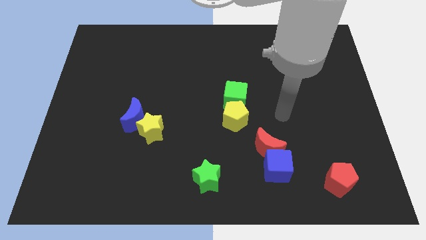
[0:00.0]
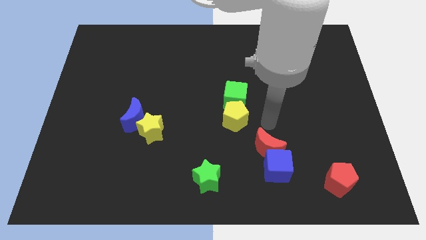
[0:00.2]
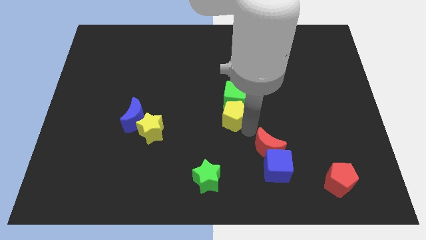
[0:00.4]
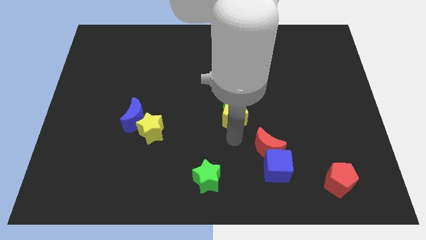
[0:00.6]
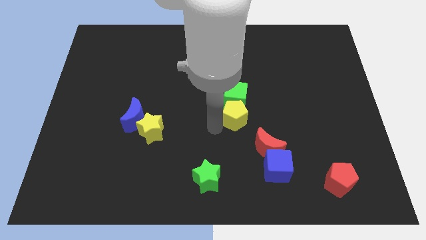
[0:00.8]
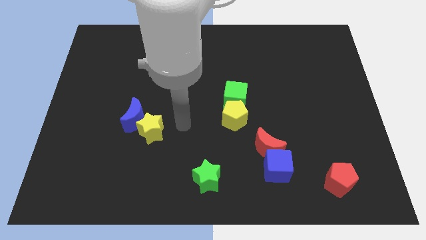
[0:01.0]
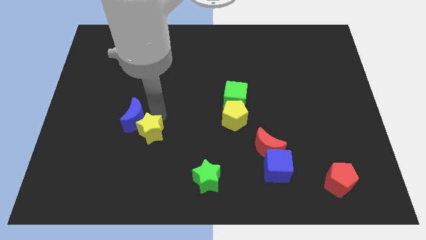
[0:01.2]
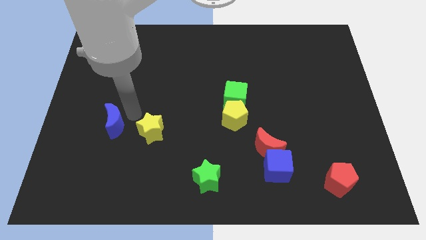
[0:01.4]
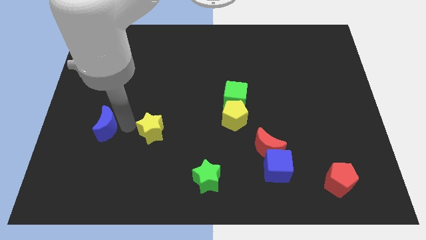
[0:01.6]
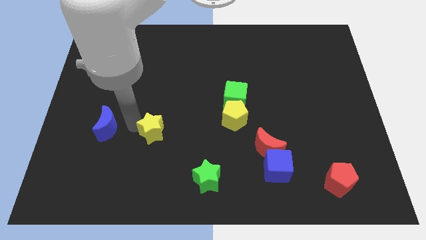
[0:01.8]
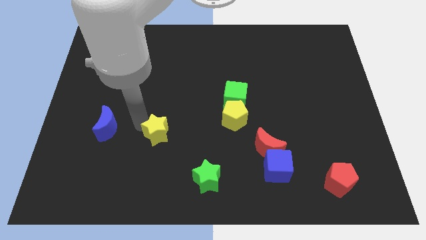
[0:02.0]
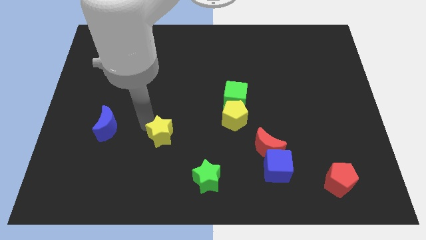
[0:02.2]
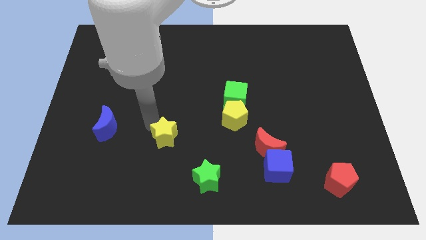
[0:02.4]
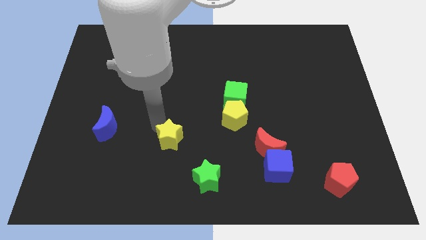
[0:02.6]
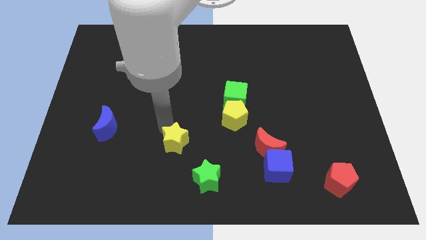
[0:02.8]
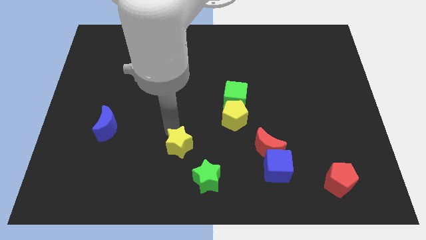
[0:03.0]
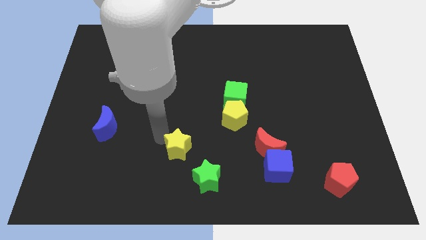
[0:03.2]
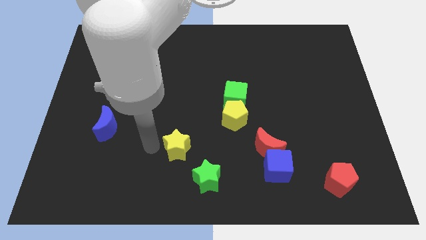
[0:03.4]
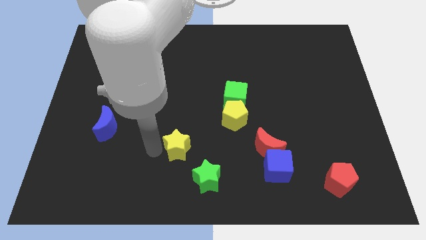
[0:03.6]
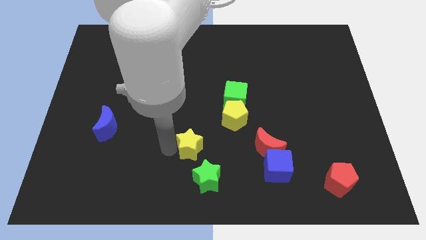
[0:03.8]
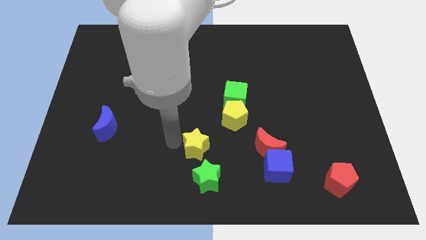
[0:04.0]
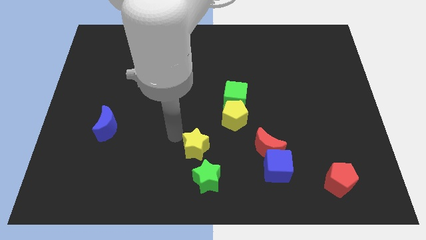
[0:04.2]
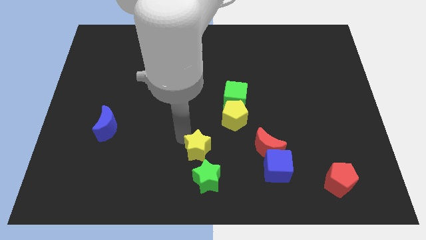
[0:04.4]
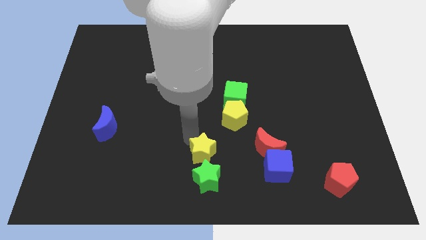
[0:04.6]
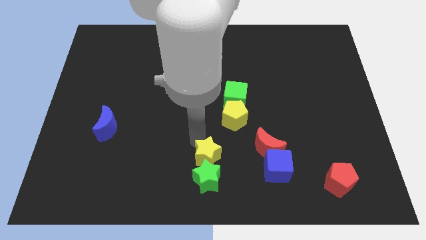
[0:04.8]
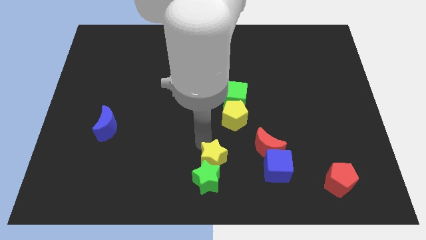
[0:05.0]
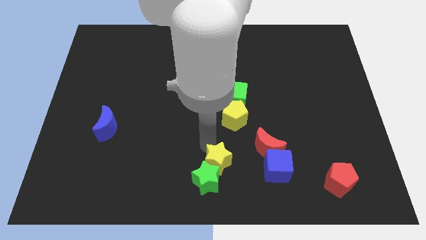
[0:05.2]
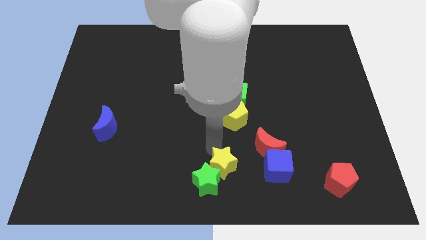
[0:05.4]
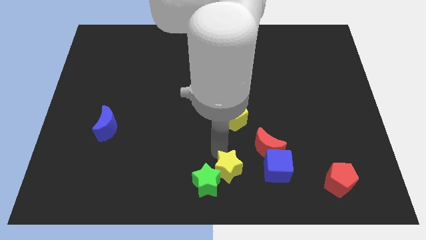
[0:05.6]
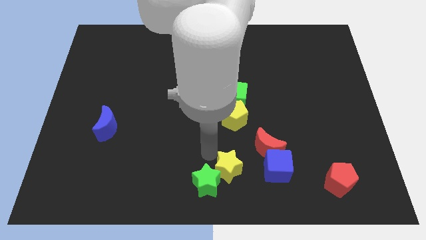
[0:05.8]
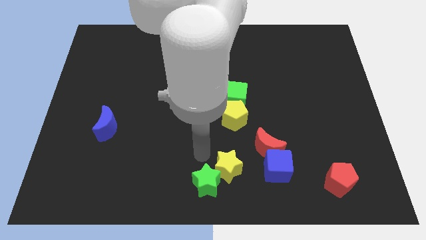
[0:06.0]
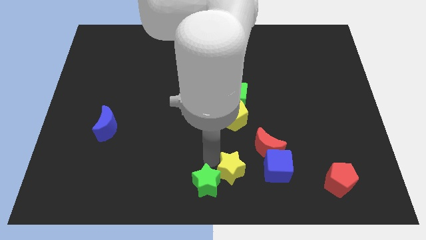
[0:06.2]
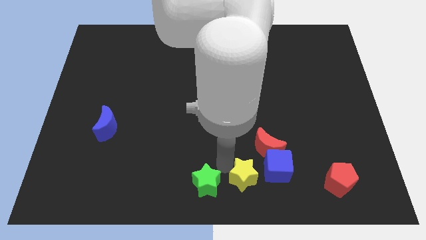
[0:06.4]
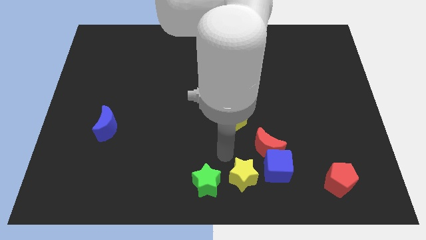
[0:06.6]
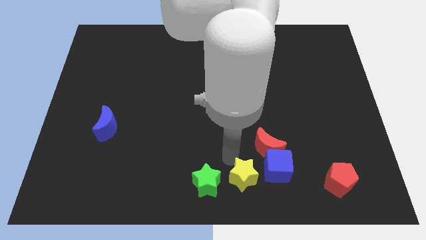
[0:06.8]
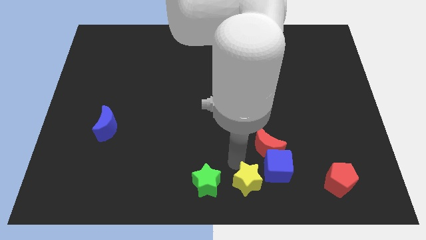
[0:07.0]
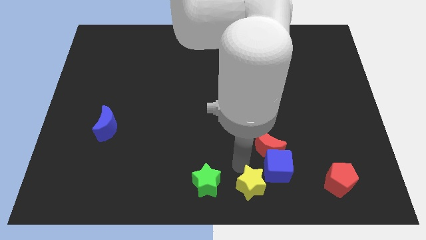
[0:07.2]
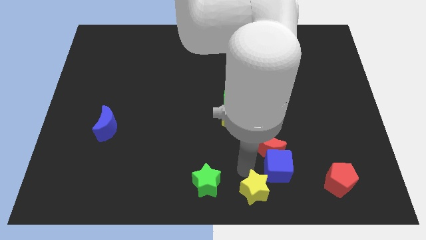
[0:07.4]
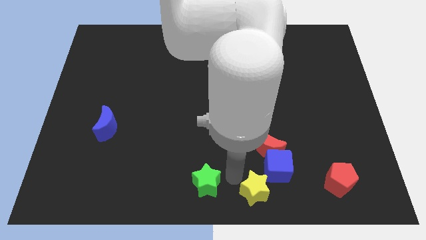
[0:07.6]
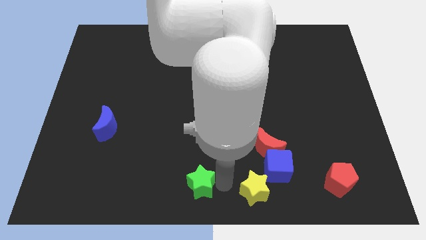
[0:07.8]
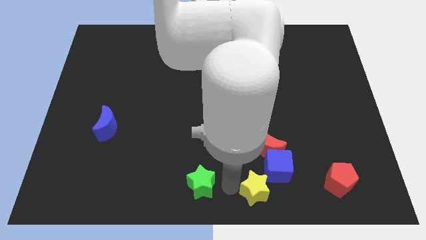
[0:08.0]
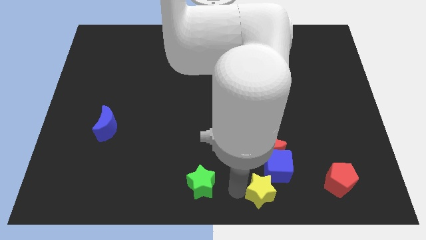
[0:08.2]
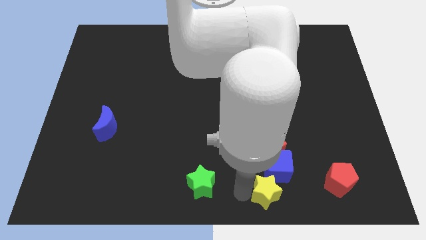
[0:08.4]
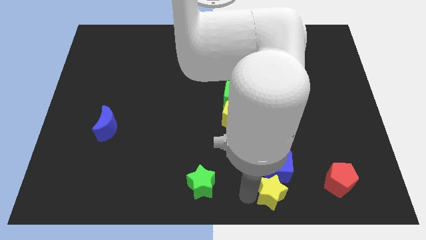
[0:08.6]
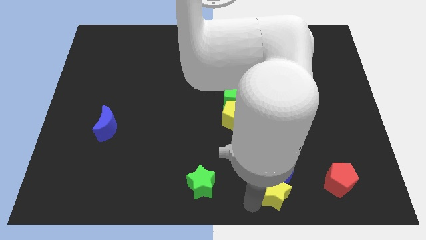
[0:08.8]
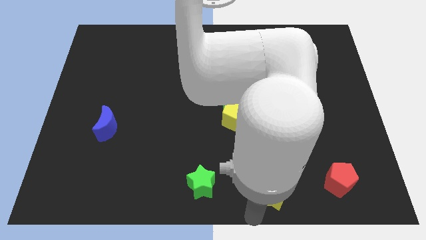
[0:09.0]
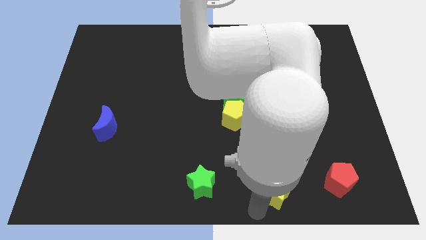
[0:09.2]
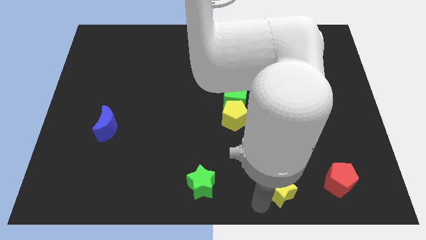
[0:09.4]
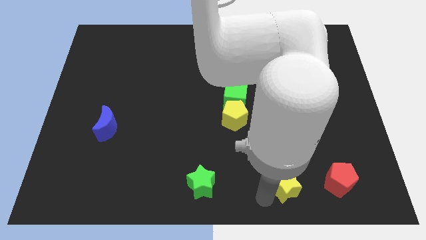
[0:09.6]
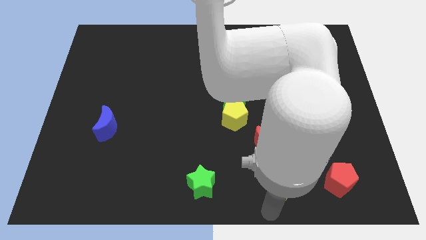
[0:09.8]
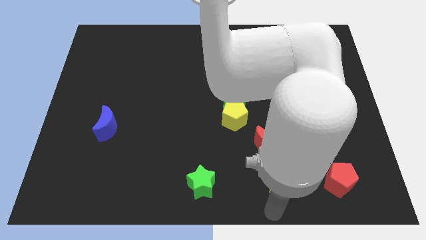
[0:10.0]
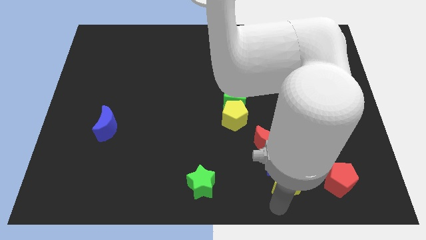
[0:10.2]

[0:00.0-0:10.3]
move the yellow star diagonally down and to the right of the red moon

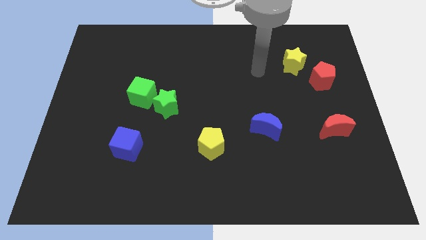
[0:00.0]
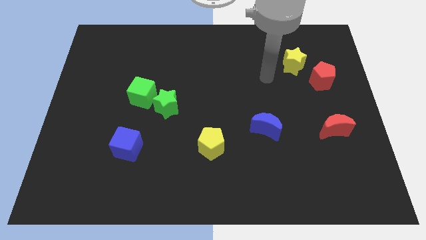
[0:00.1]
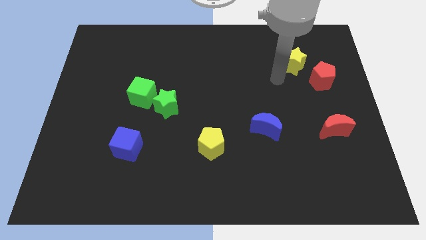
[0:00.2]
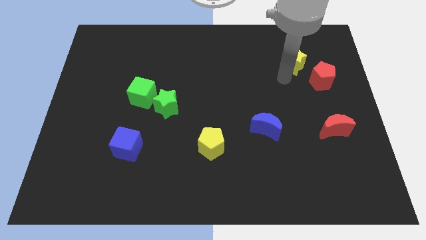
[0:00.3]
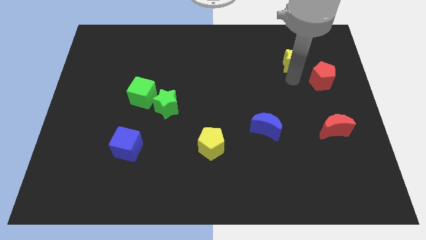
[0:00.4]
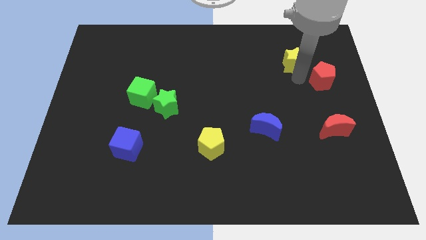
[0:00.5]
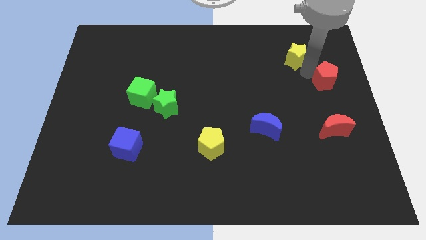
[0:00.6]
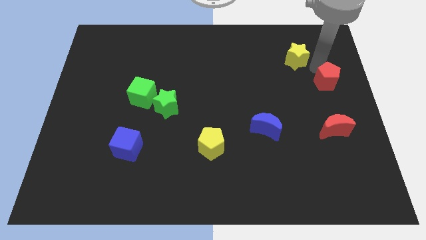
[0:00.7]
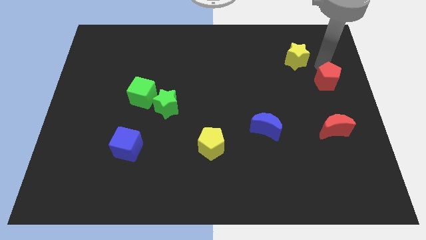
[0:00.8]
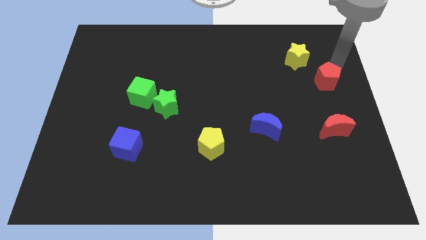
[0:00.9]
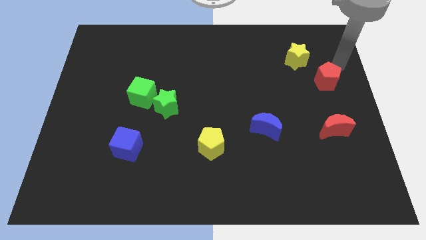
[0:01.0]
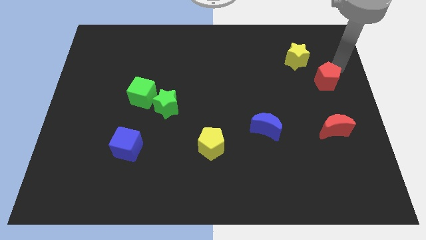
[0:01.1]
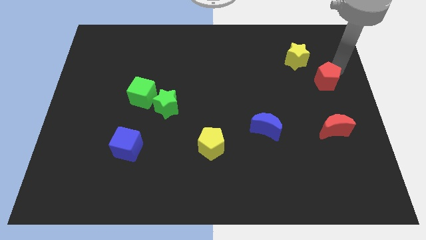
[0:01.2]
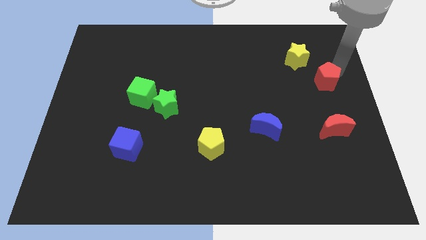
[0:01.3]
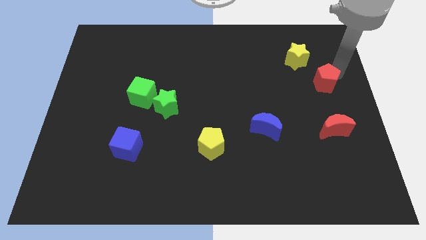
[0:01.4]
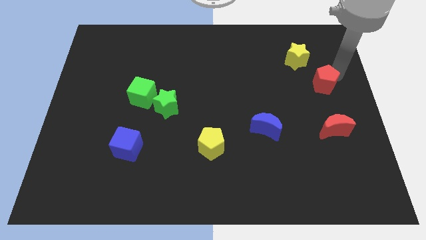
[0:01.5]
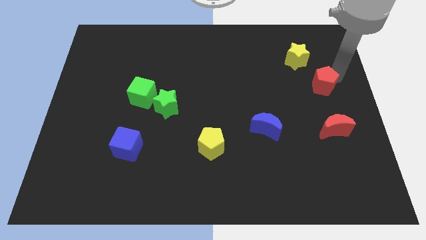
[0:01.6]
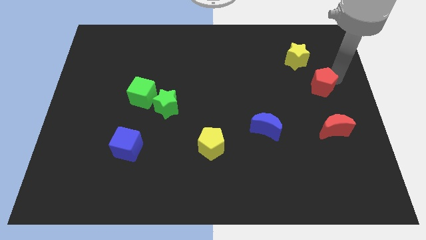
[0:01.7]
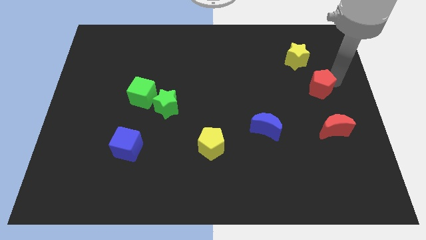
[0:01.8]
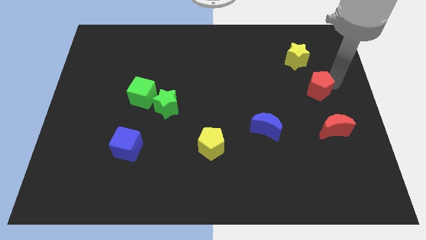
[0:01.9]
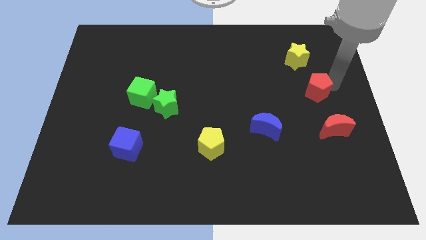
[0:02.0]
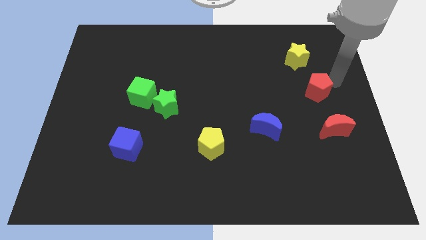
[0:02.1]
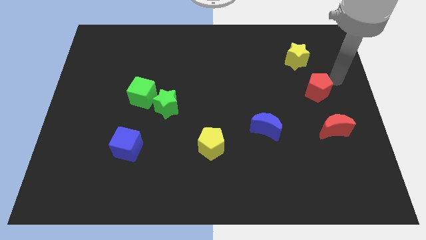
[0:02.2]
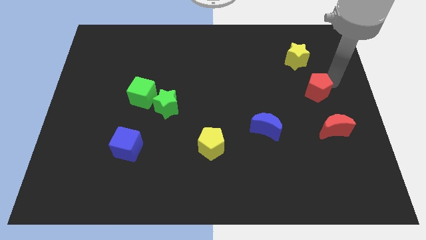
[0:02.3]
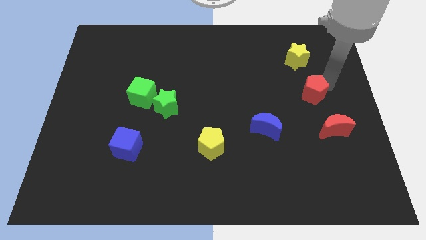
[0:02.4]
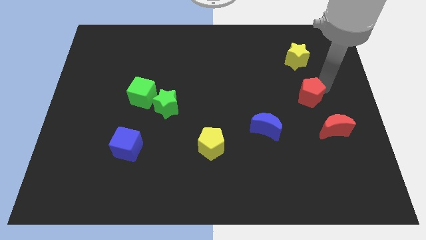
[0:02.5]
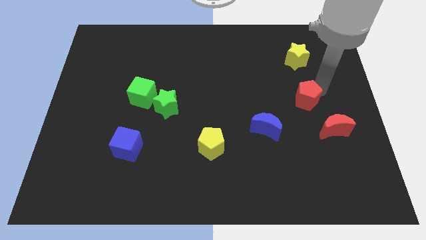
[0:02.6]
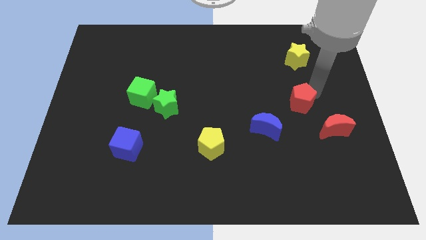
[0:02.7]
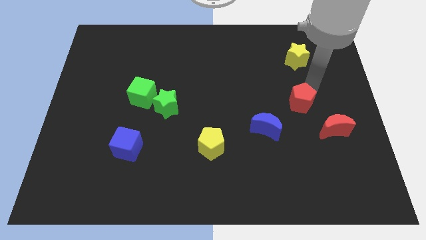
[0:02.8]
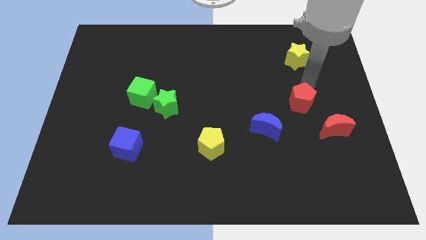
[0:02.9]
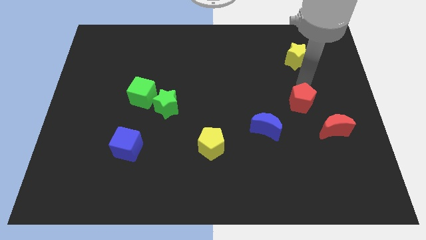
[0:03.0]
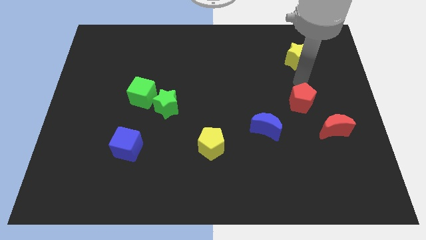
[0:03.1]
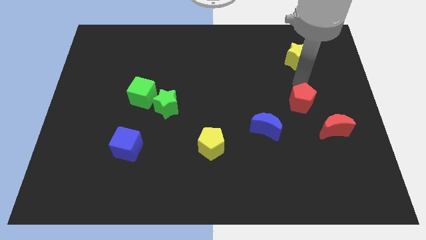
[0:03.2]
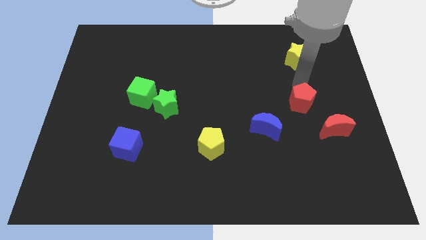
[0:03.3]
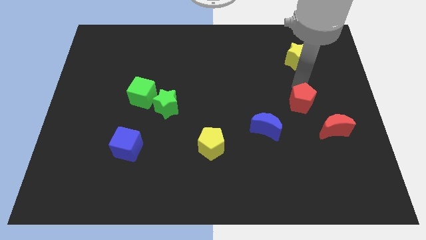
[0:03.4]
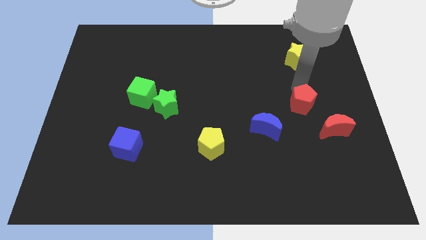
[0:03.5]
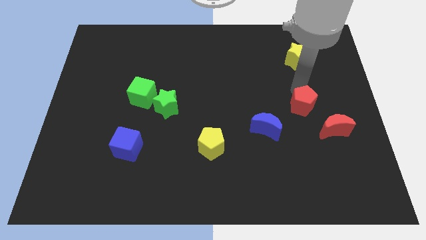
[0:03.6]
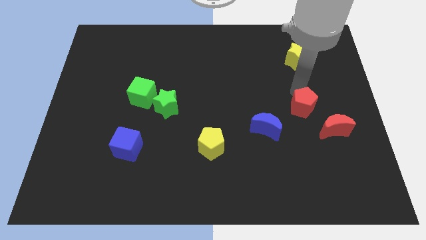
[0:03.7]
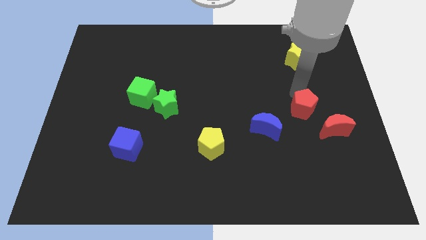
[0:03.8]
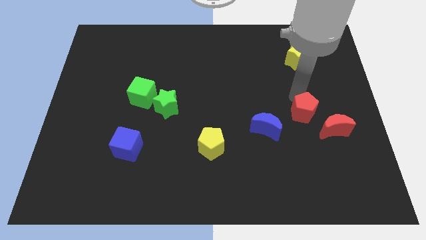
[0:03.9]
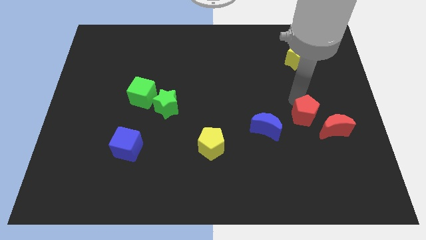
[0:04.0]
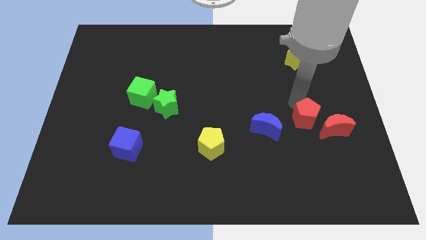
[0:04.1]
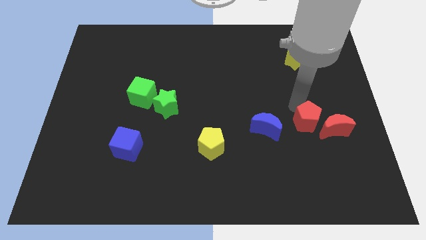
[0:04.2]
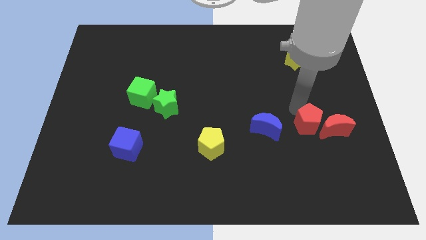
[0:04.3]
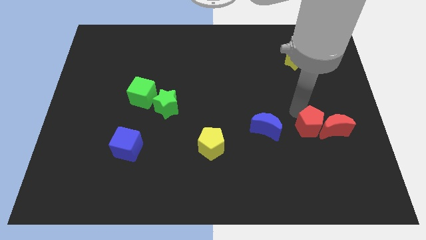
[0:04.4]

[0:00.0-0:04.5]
move the red pentagon to the bottom left side of the red moon
